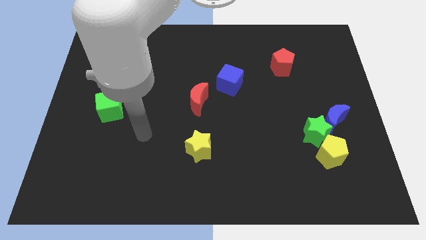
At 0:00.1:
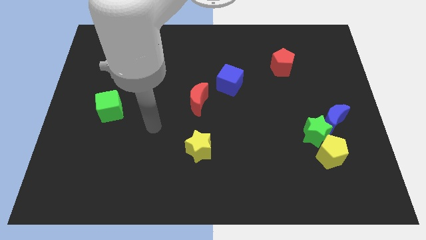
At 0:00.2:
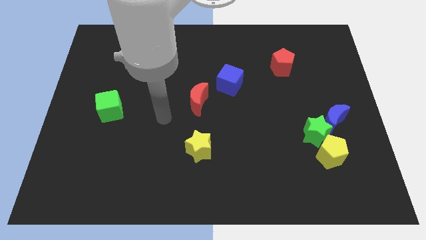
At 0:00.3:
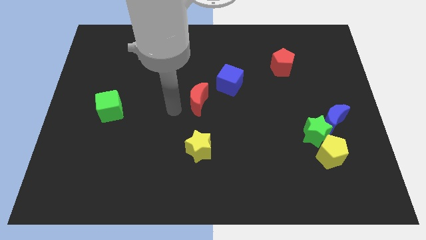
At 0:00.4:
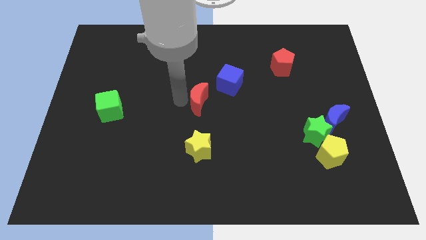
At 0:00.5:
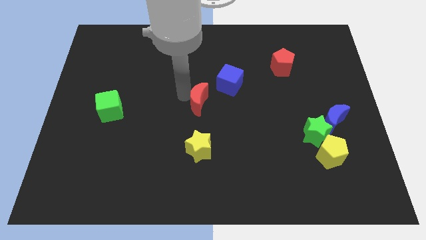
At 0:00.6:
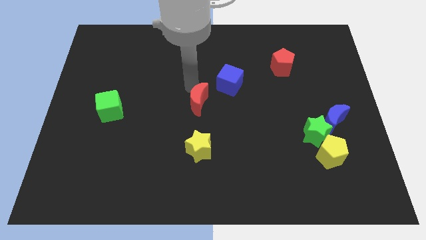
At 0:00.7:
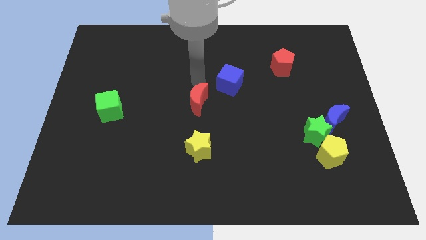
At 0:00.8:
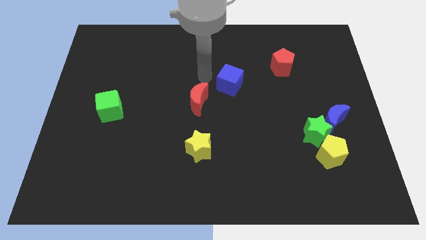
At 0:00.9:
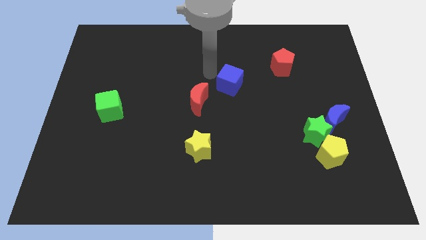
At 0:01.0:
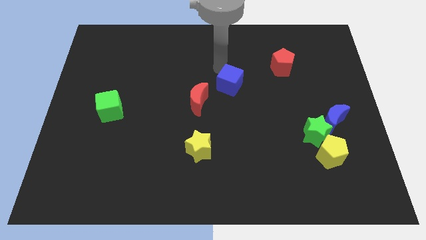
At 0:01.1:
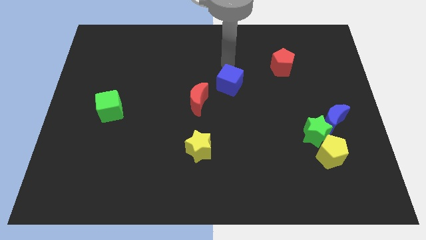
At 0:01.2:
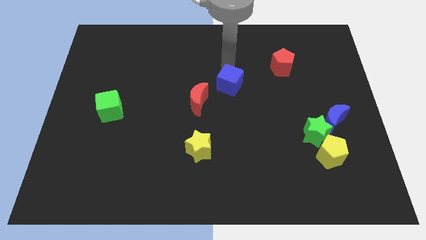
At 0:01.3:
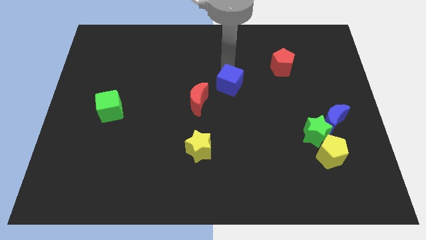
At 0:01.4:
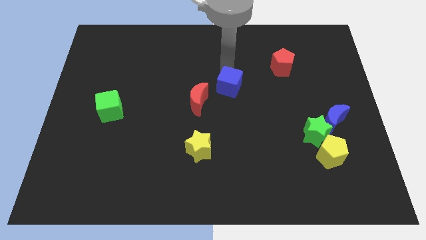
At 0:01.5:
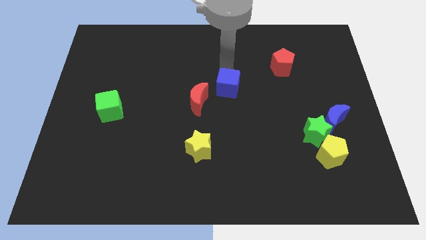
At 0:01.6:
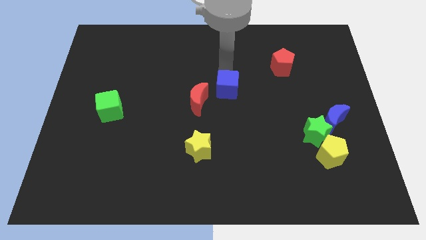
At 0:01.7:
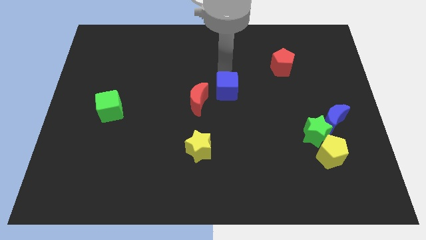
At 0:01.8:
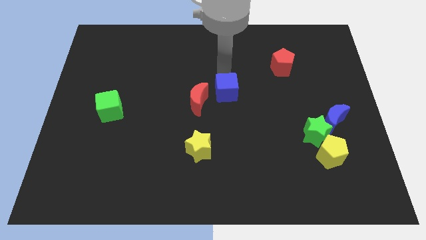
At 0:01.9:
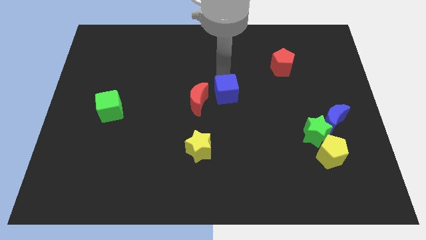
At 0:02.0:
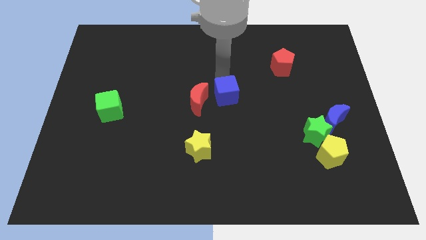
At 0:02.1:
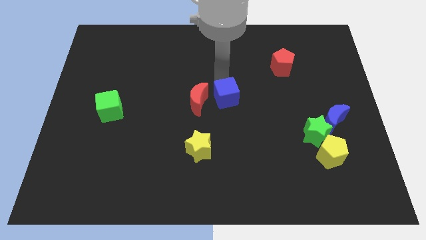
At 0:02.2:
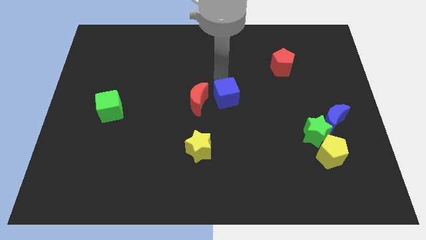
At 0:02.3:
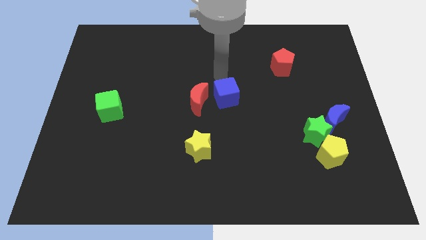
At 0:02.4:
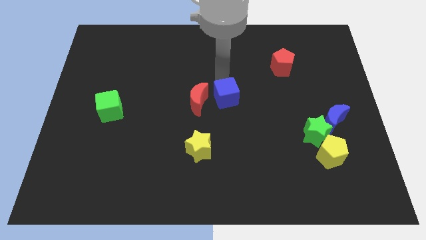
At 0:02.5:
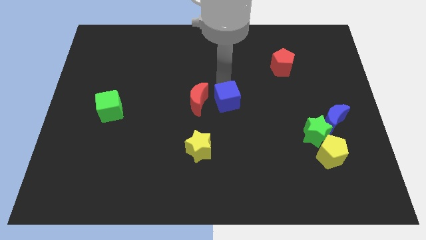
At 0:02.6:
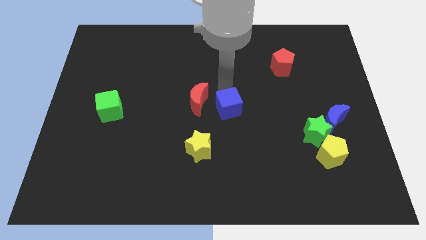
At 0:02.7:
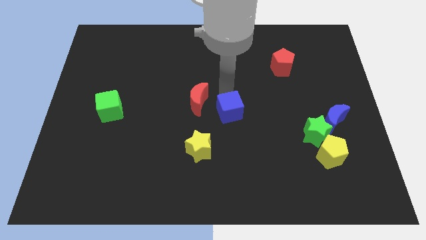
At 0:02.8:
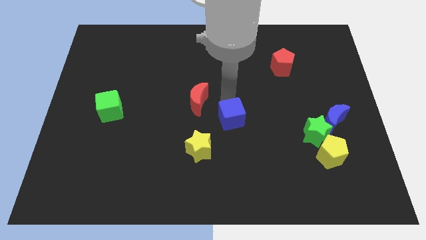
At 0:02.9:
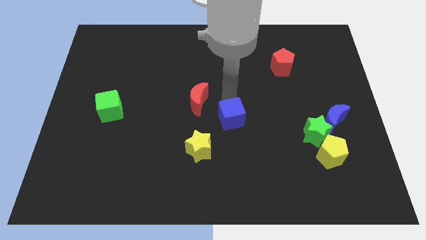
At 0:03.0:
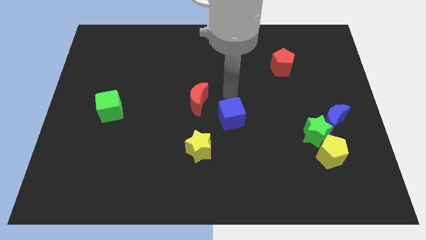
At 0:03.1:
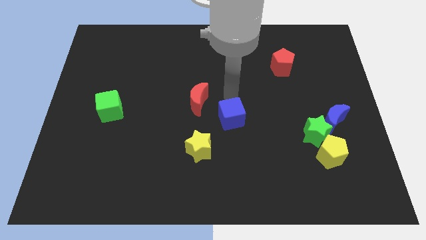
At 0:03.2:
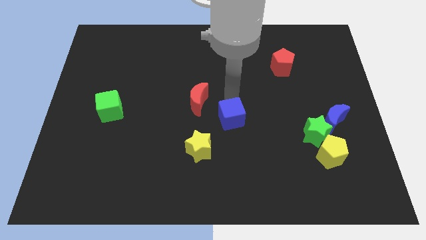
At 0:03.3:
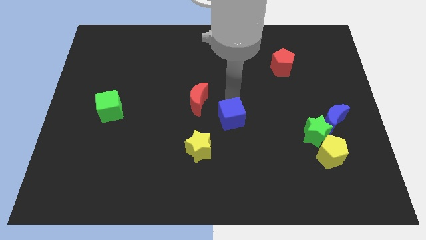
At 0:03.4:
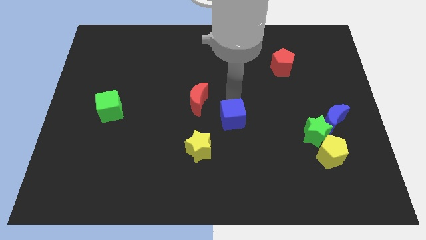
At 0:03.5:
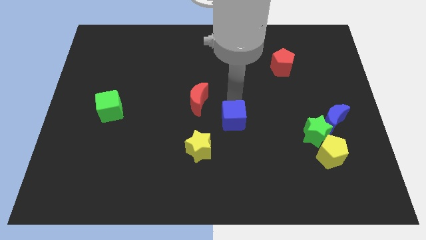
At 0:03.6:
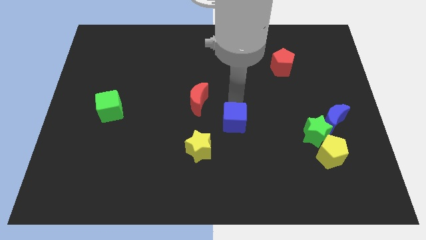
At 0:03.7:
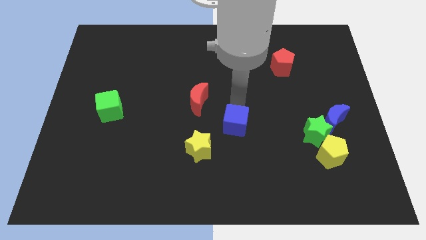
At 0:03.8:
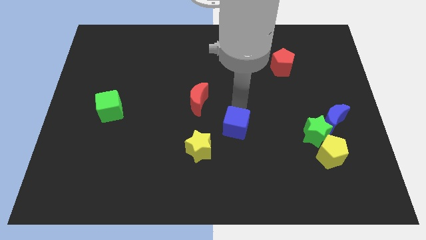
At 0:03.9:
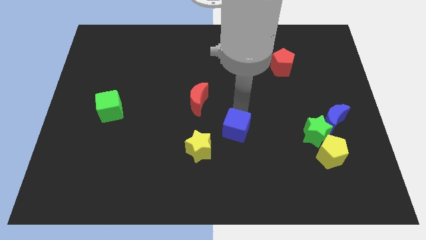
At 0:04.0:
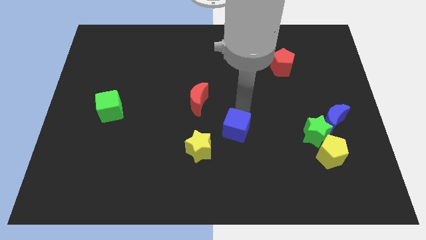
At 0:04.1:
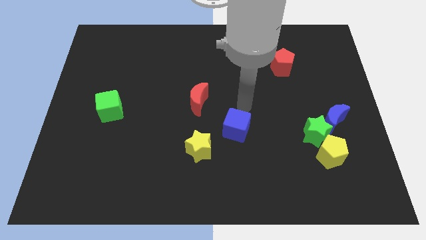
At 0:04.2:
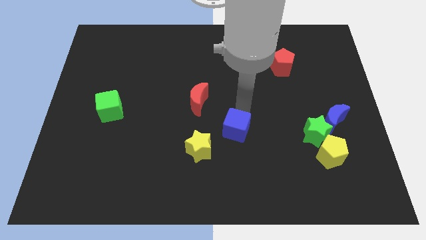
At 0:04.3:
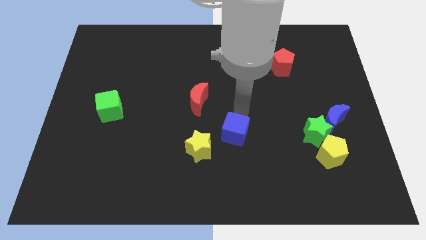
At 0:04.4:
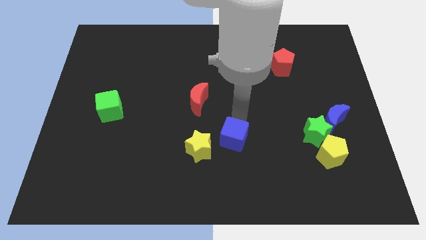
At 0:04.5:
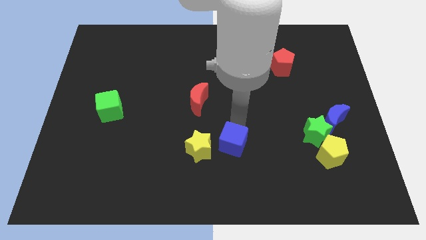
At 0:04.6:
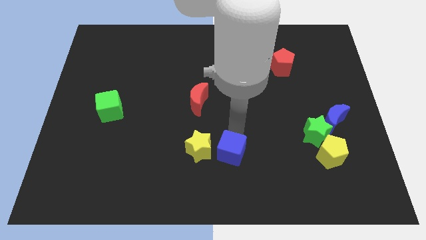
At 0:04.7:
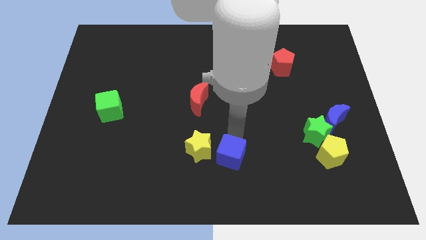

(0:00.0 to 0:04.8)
push the blue cube to the bottom

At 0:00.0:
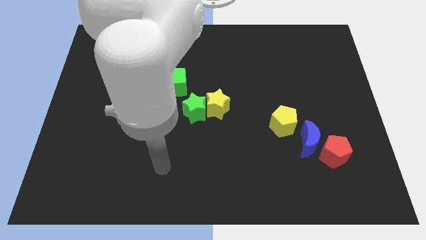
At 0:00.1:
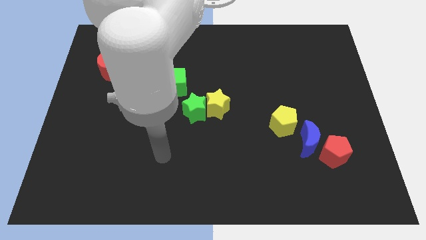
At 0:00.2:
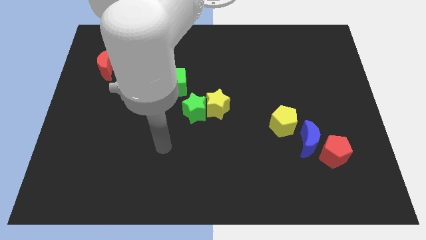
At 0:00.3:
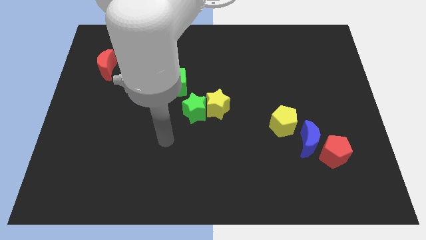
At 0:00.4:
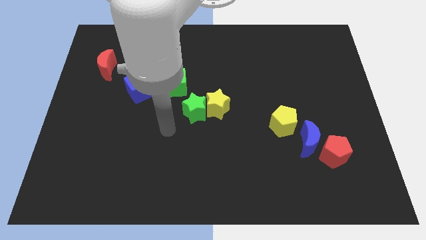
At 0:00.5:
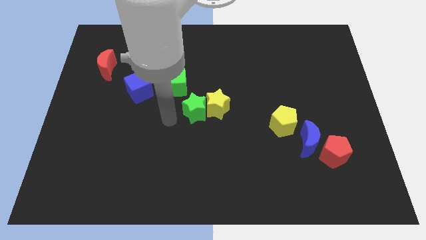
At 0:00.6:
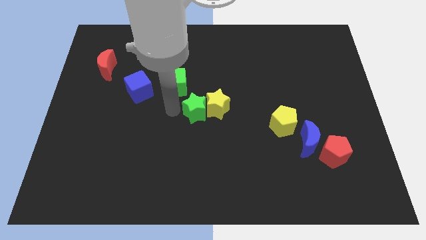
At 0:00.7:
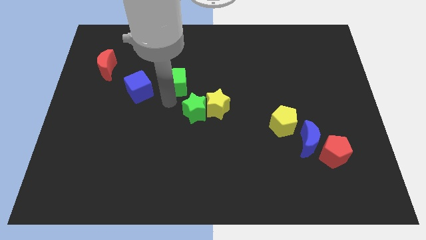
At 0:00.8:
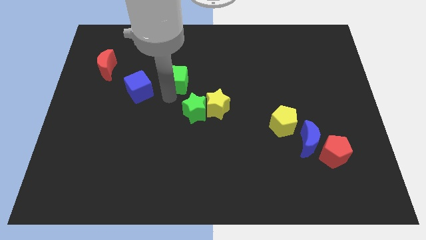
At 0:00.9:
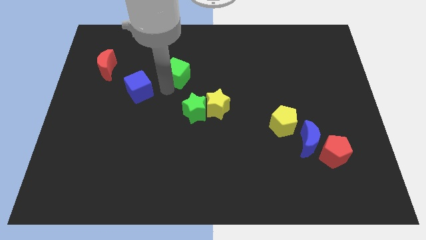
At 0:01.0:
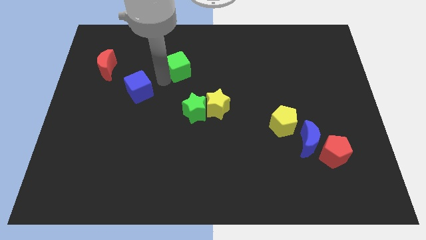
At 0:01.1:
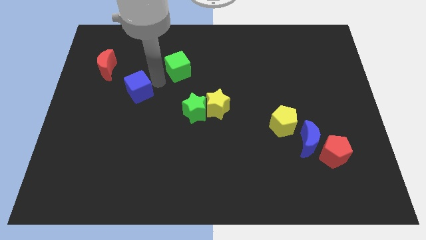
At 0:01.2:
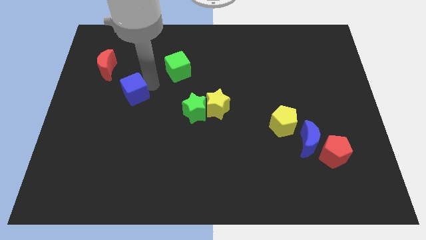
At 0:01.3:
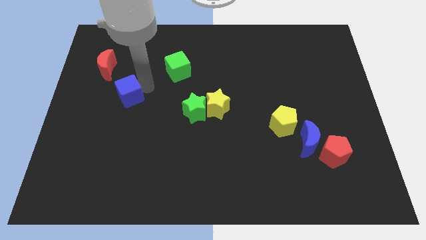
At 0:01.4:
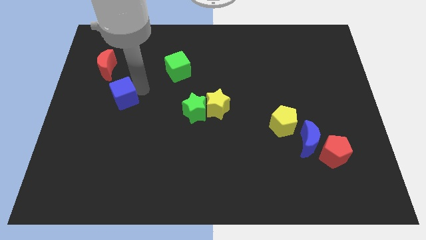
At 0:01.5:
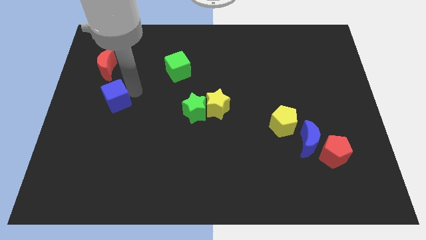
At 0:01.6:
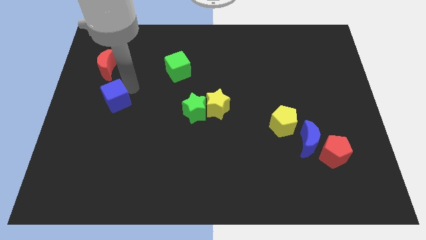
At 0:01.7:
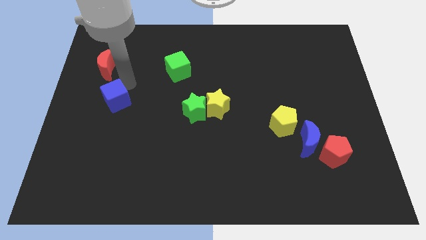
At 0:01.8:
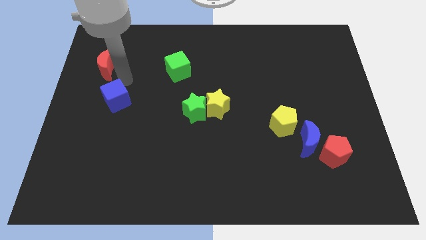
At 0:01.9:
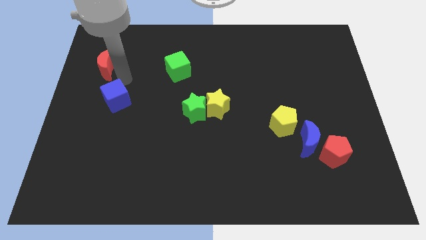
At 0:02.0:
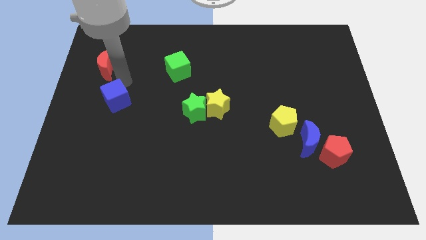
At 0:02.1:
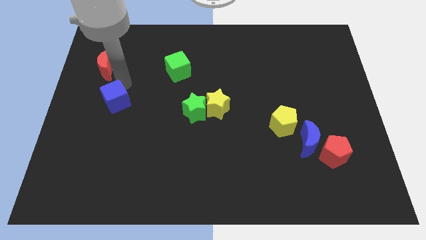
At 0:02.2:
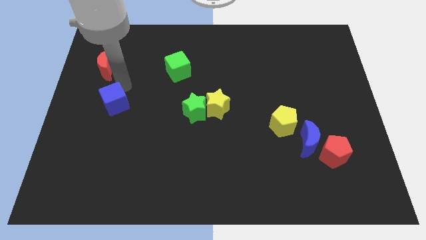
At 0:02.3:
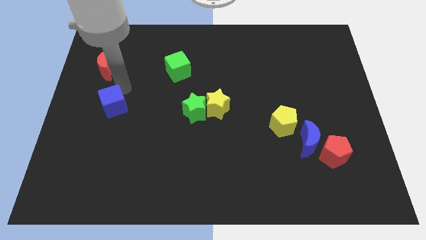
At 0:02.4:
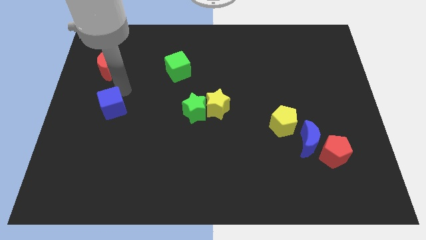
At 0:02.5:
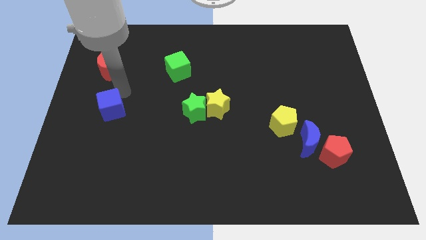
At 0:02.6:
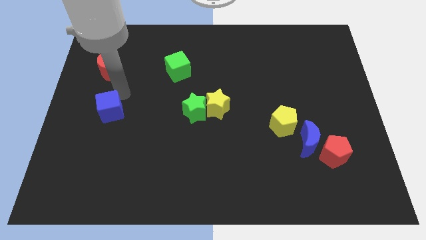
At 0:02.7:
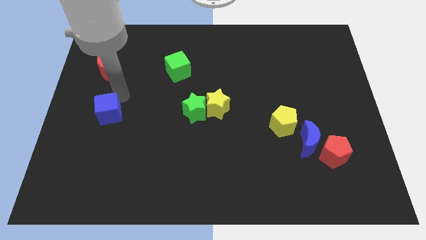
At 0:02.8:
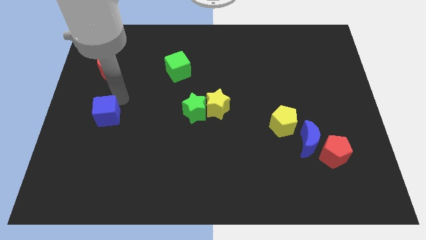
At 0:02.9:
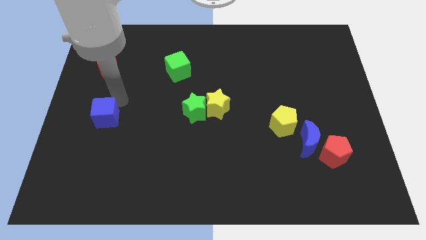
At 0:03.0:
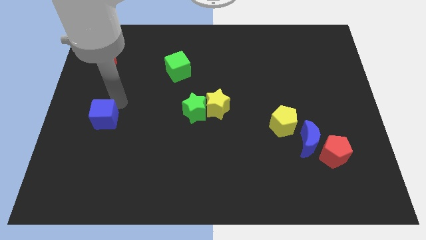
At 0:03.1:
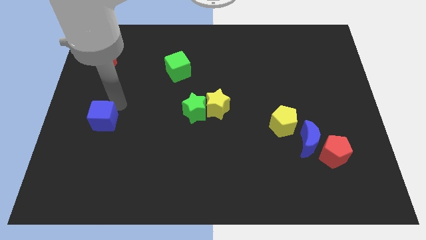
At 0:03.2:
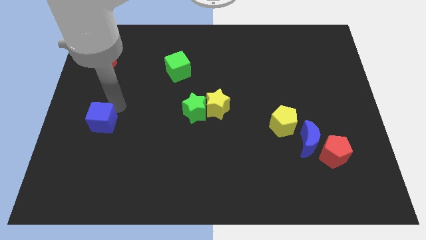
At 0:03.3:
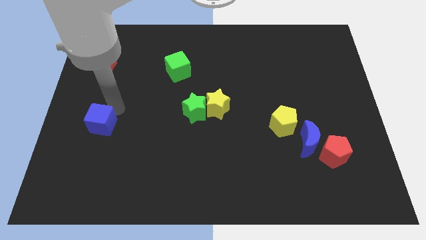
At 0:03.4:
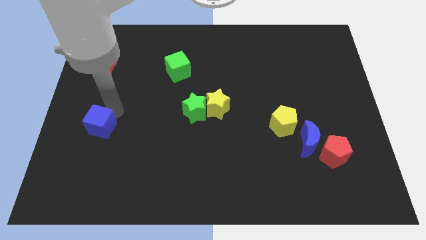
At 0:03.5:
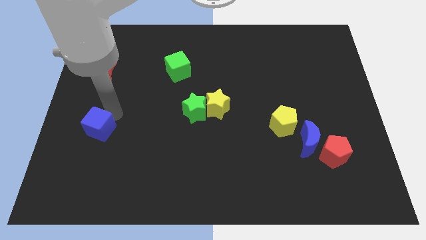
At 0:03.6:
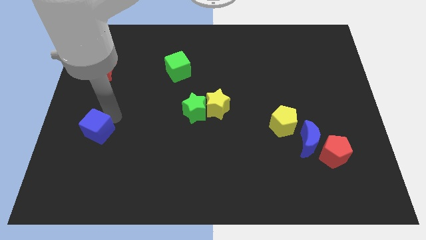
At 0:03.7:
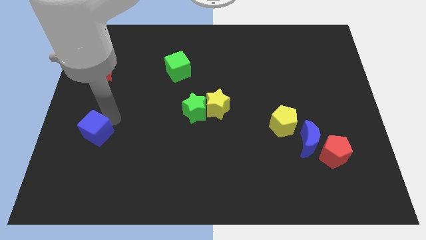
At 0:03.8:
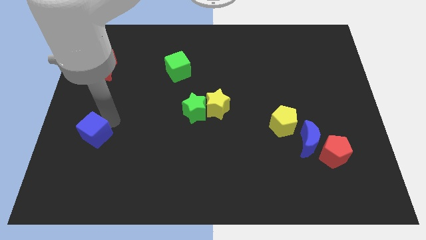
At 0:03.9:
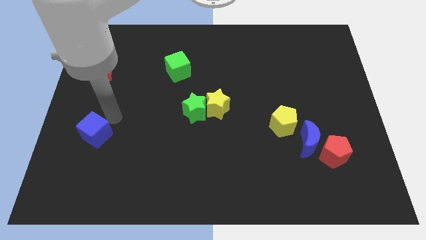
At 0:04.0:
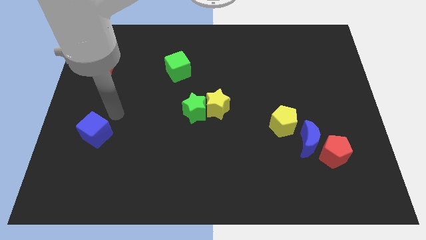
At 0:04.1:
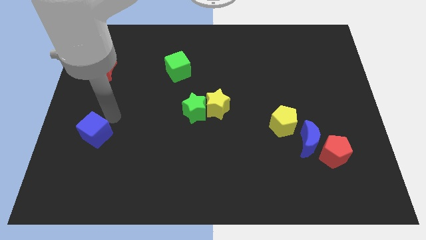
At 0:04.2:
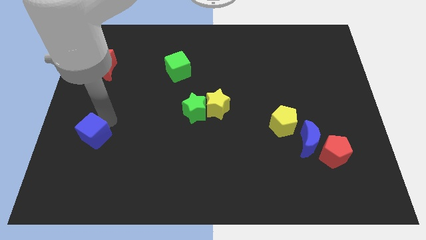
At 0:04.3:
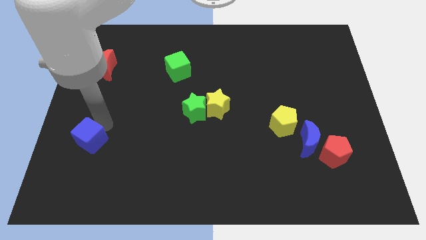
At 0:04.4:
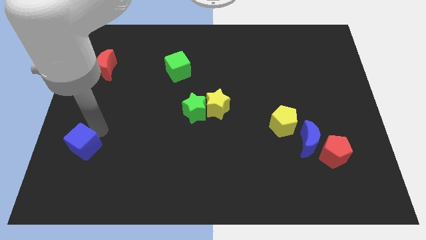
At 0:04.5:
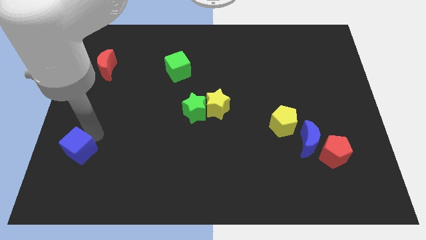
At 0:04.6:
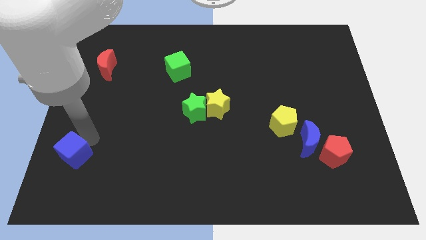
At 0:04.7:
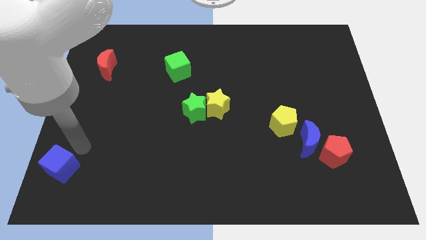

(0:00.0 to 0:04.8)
move the blue cube to the bottom left
